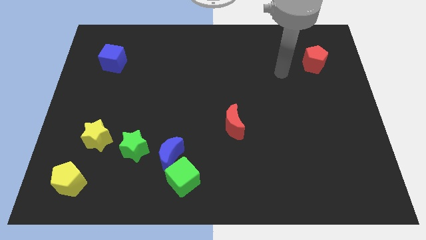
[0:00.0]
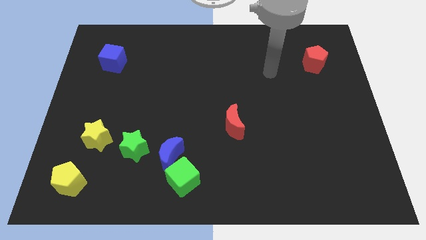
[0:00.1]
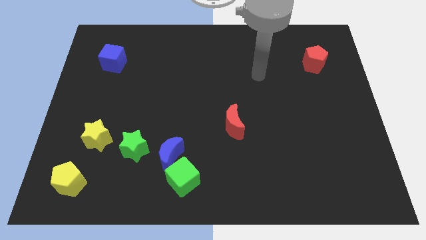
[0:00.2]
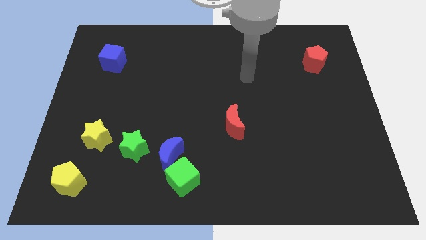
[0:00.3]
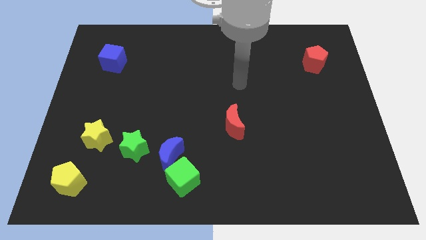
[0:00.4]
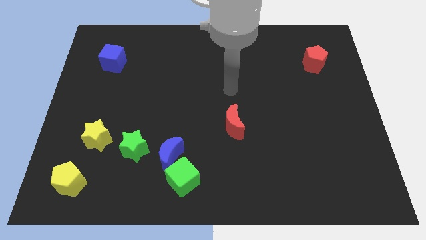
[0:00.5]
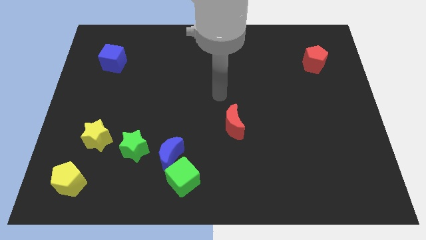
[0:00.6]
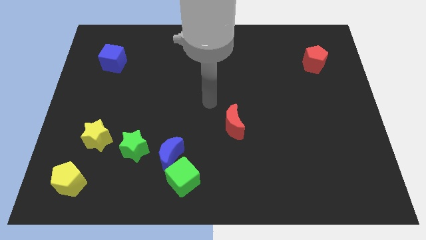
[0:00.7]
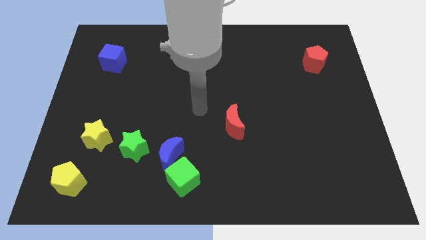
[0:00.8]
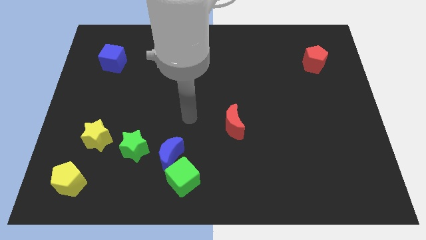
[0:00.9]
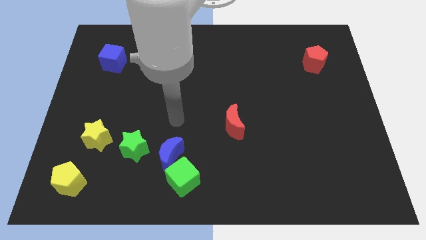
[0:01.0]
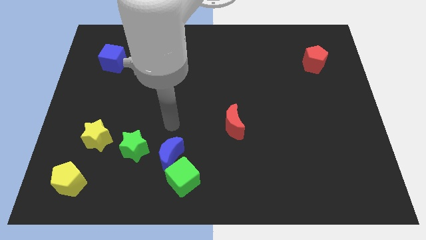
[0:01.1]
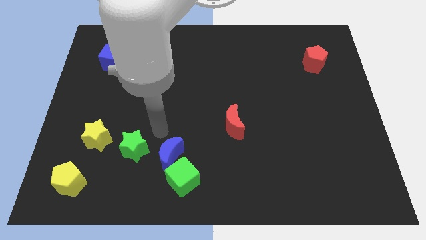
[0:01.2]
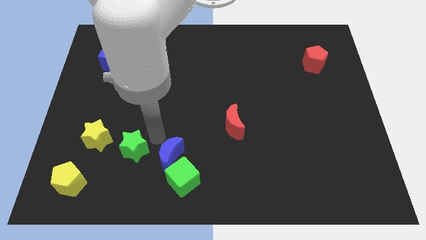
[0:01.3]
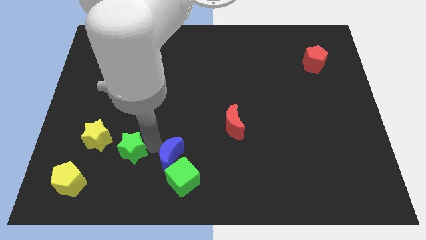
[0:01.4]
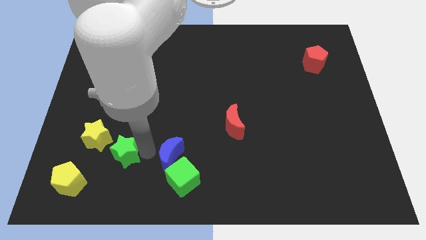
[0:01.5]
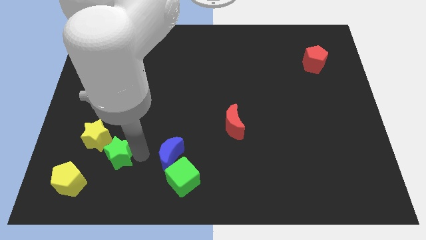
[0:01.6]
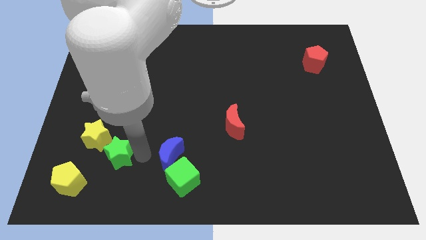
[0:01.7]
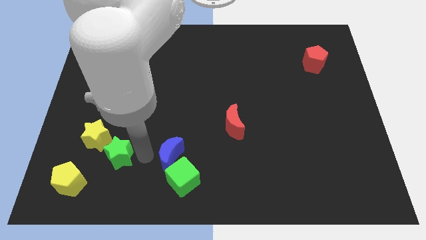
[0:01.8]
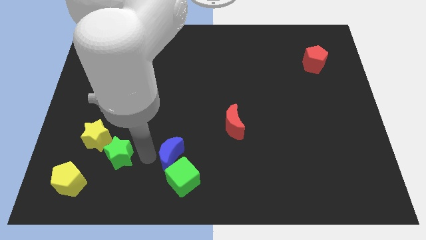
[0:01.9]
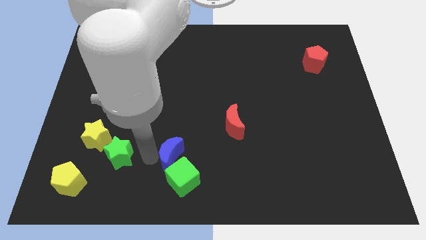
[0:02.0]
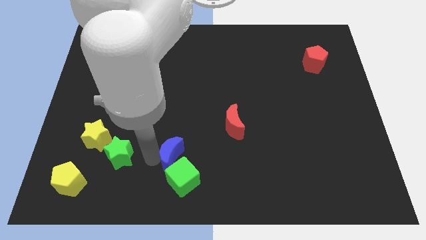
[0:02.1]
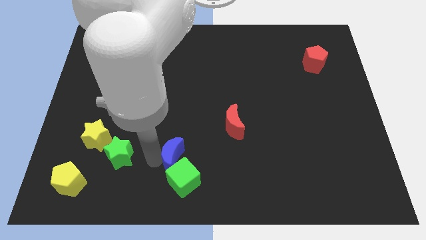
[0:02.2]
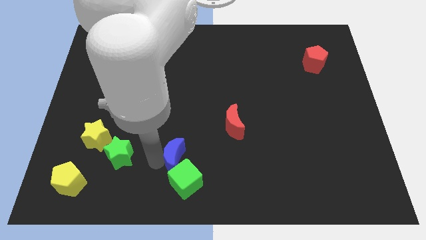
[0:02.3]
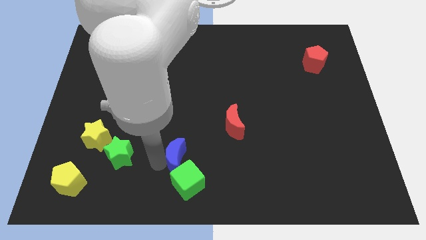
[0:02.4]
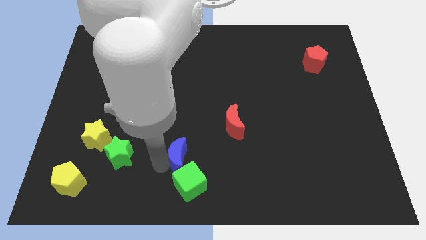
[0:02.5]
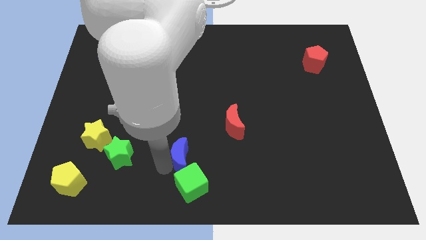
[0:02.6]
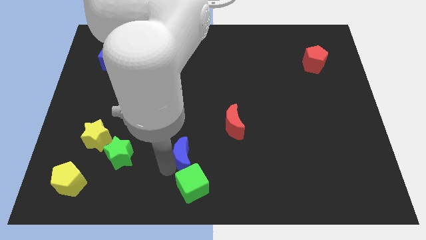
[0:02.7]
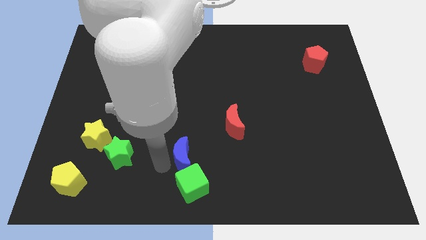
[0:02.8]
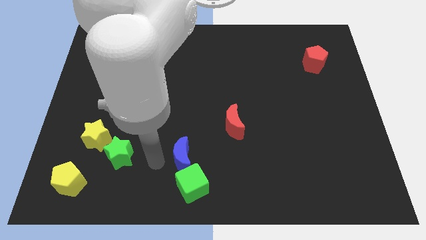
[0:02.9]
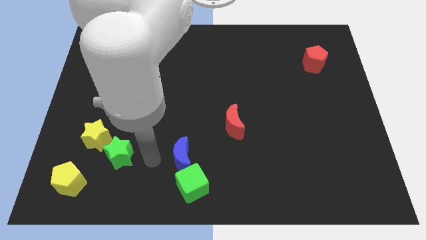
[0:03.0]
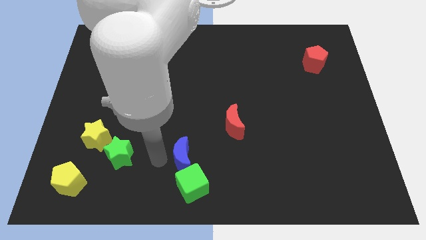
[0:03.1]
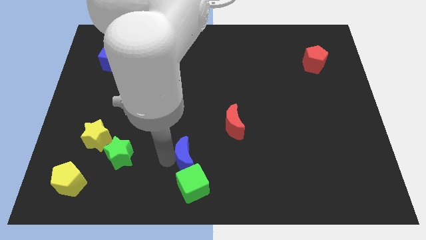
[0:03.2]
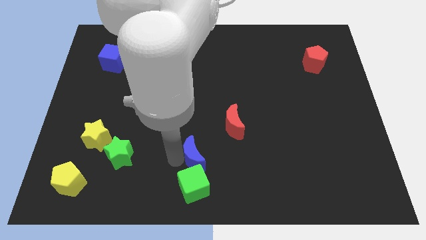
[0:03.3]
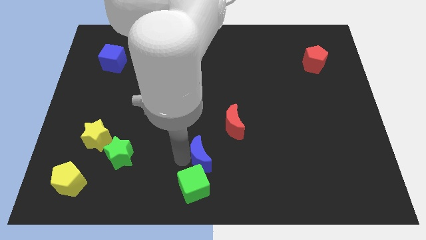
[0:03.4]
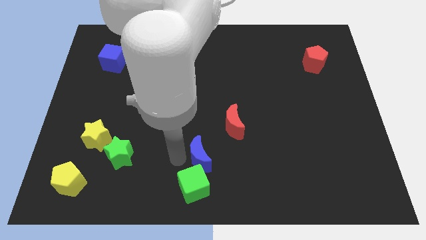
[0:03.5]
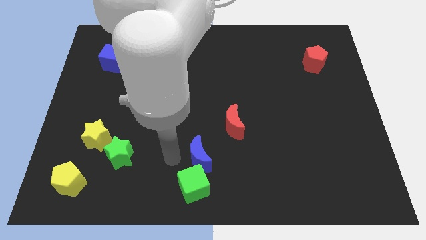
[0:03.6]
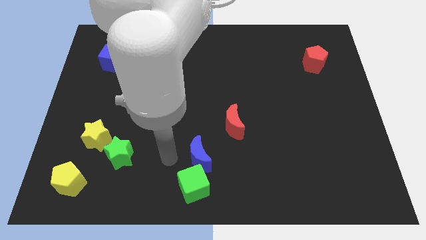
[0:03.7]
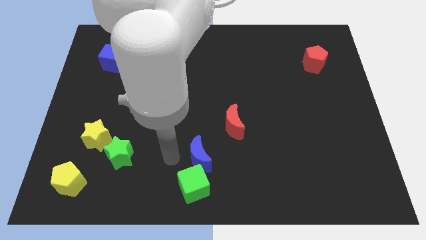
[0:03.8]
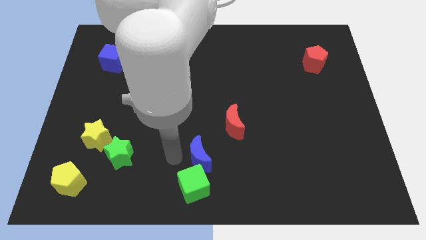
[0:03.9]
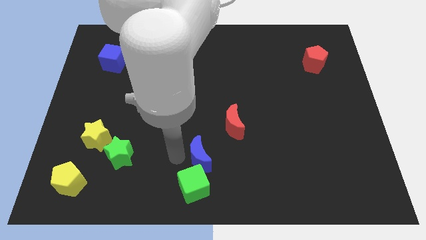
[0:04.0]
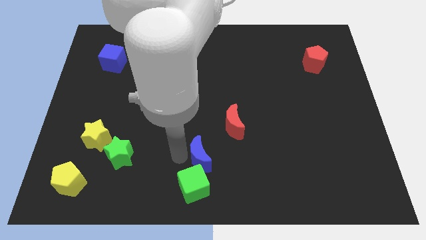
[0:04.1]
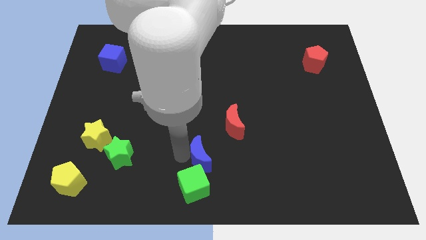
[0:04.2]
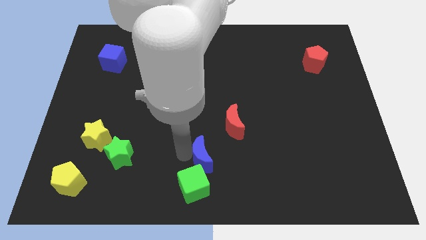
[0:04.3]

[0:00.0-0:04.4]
slightly move the blue moon to the right

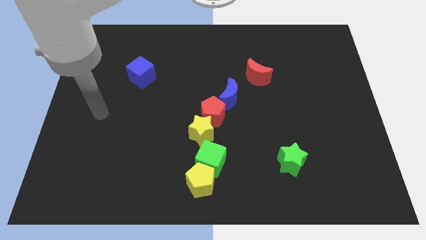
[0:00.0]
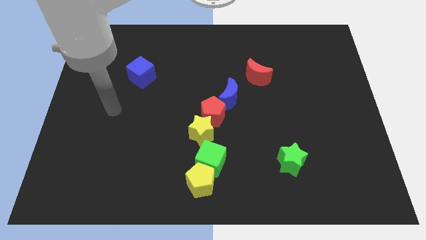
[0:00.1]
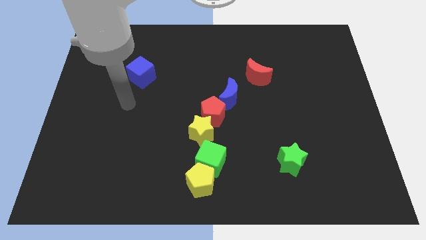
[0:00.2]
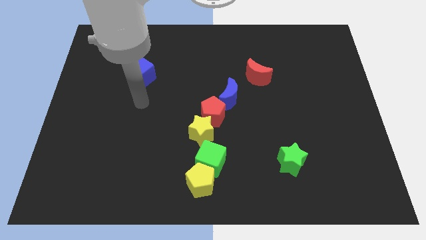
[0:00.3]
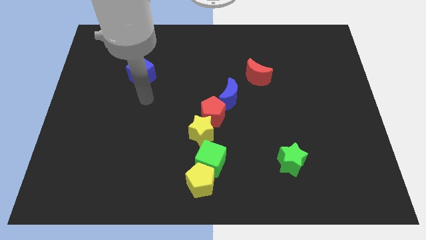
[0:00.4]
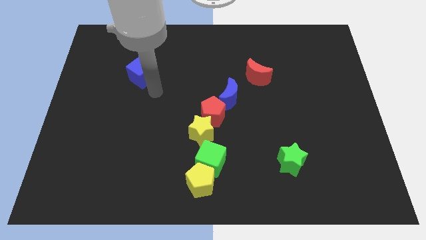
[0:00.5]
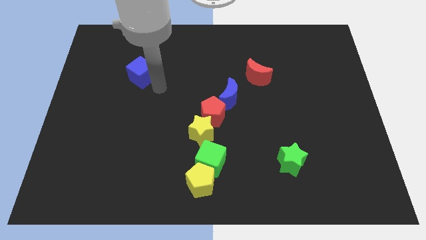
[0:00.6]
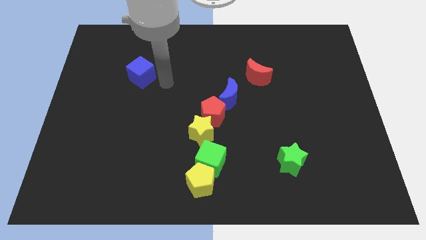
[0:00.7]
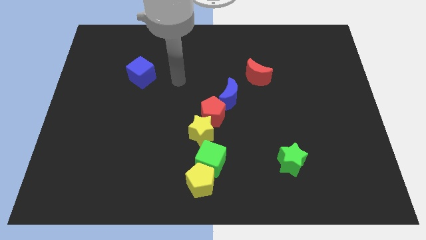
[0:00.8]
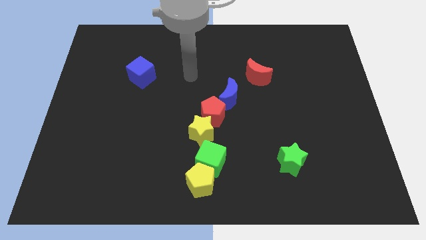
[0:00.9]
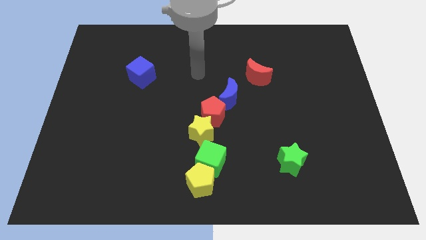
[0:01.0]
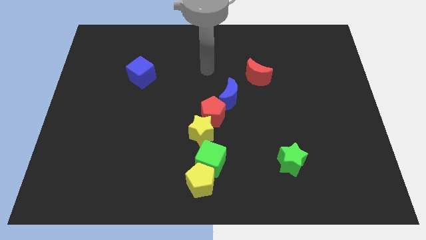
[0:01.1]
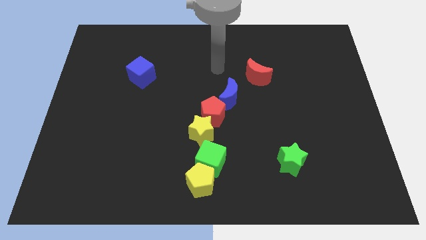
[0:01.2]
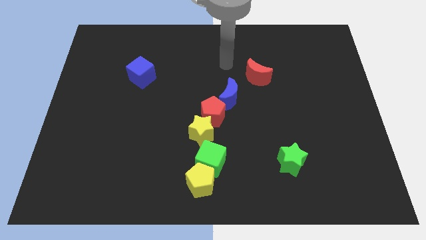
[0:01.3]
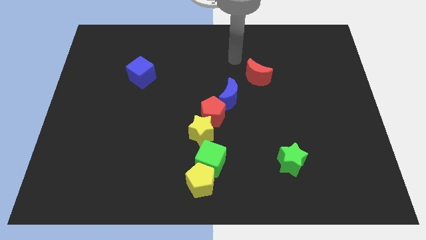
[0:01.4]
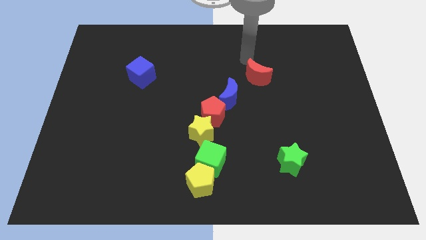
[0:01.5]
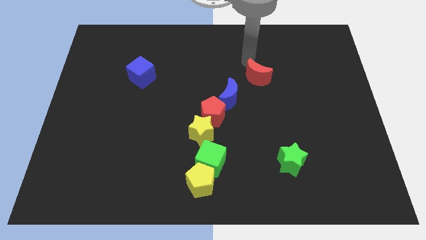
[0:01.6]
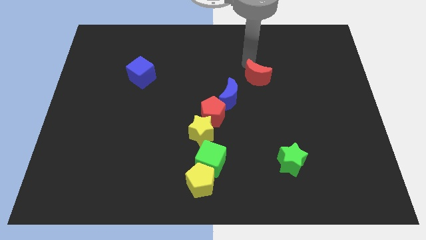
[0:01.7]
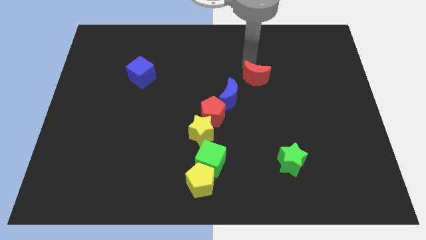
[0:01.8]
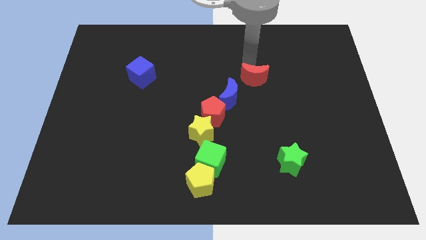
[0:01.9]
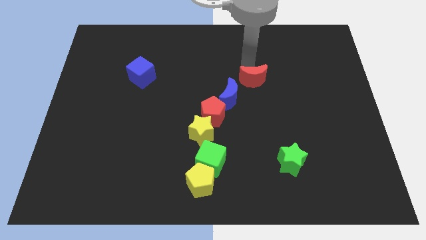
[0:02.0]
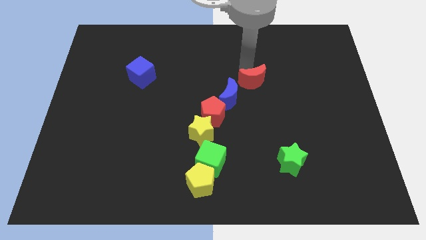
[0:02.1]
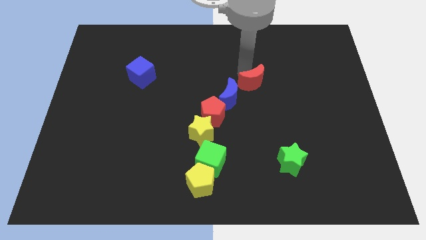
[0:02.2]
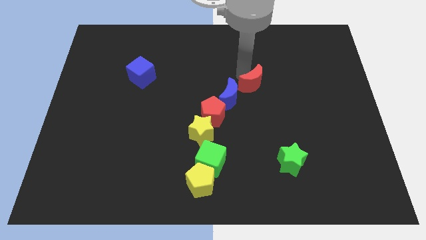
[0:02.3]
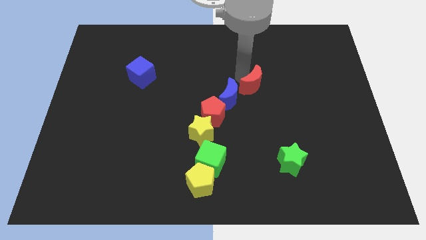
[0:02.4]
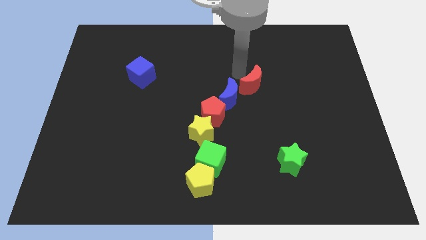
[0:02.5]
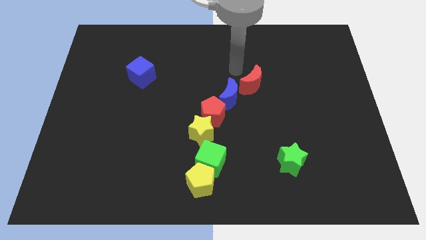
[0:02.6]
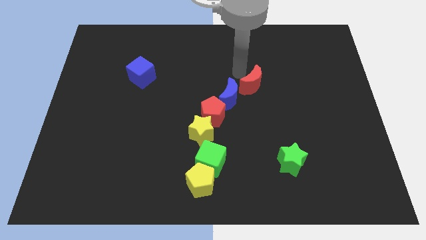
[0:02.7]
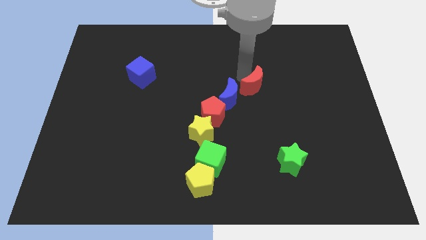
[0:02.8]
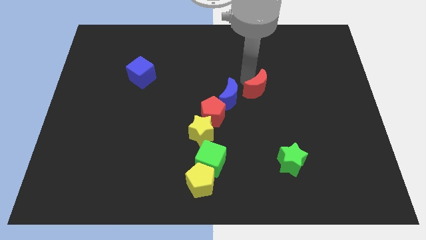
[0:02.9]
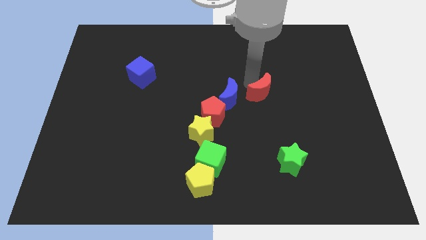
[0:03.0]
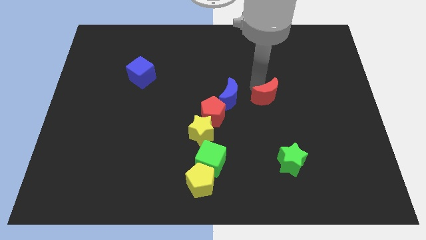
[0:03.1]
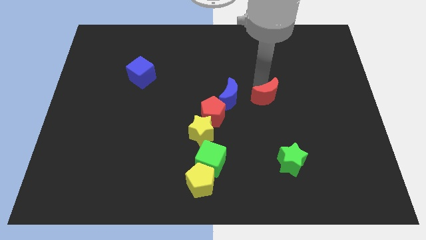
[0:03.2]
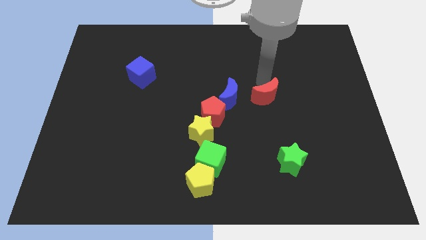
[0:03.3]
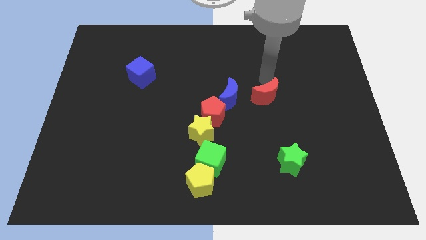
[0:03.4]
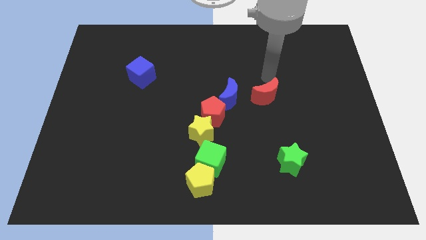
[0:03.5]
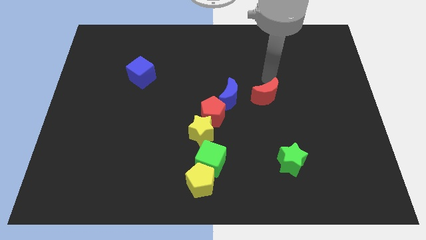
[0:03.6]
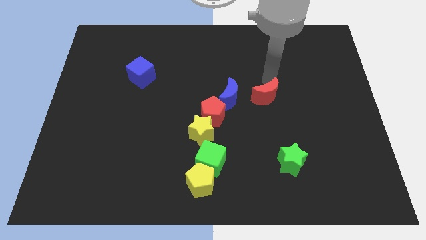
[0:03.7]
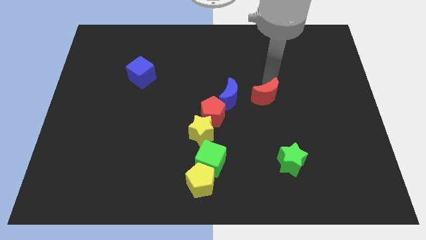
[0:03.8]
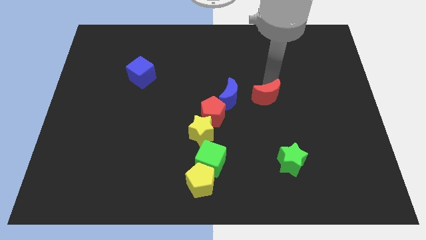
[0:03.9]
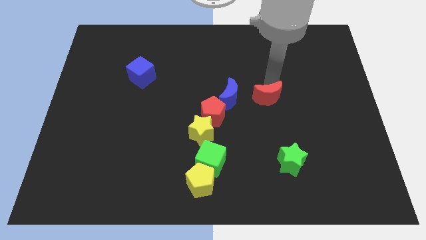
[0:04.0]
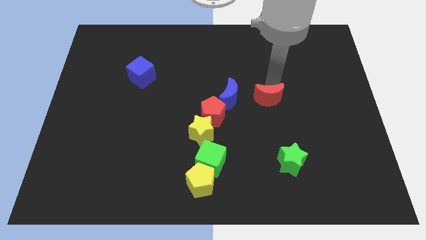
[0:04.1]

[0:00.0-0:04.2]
slightly move the red moon downwards
